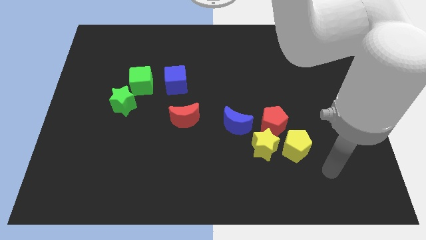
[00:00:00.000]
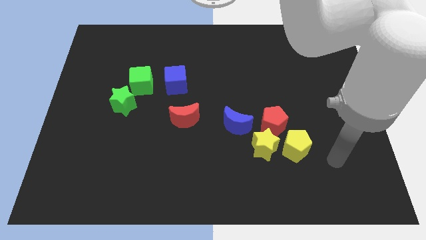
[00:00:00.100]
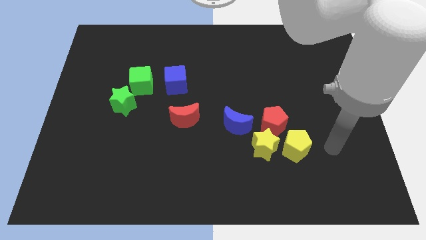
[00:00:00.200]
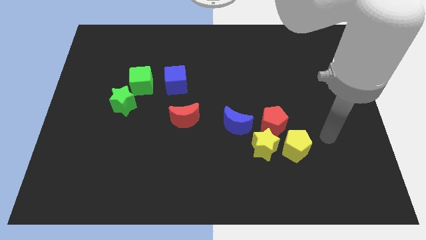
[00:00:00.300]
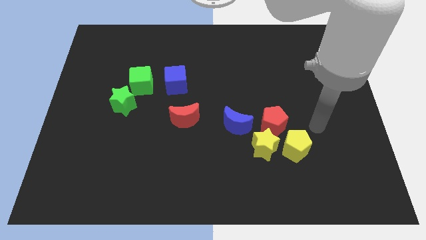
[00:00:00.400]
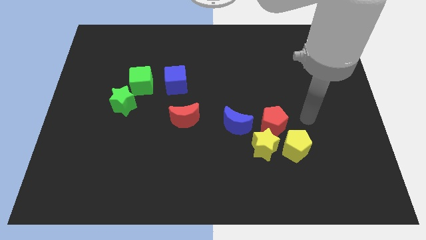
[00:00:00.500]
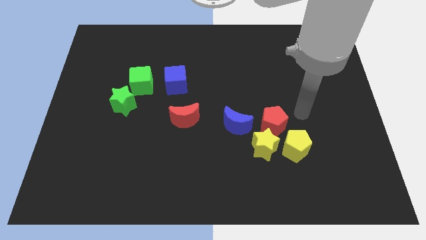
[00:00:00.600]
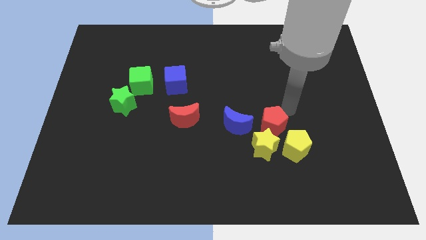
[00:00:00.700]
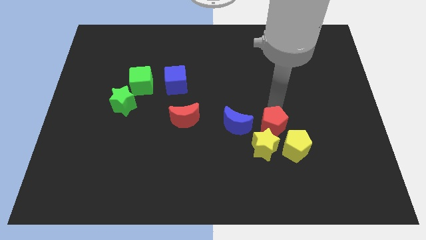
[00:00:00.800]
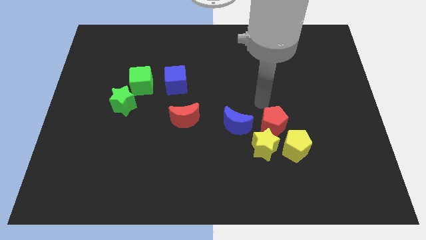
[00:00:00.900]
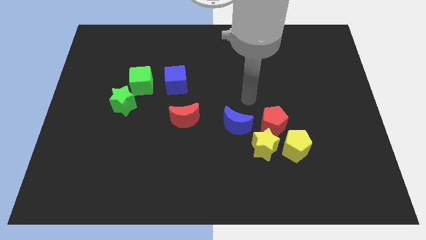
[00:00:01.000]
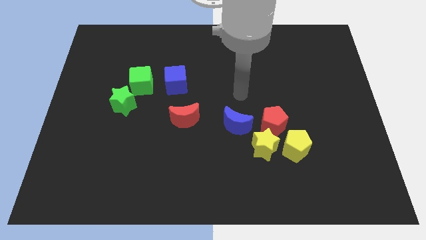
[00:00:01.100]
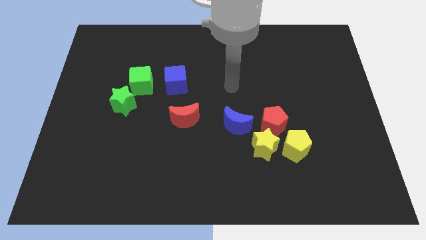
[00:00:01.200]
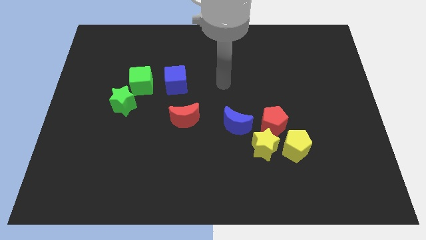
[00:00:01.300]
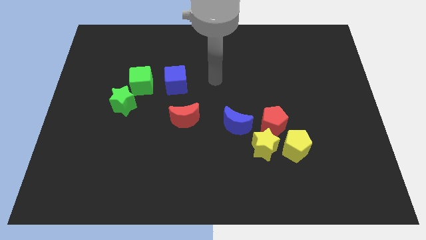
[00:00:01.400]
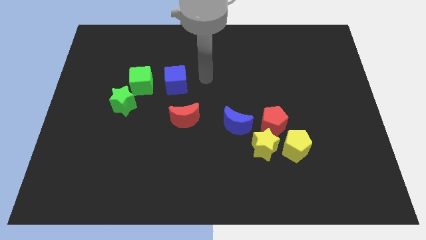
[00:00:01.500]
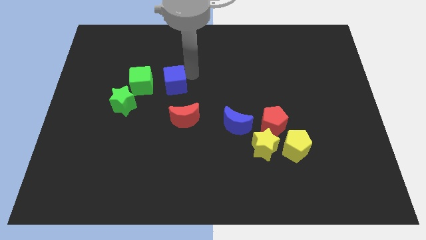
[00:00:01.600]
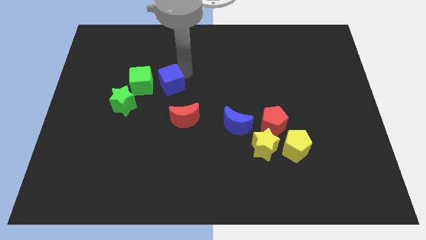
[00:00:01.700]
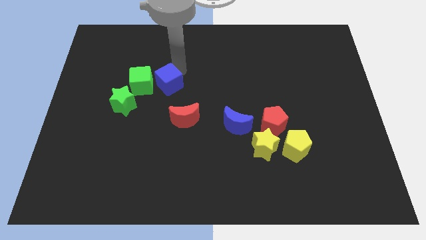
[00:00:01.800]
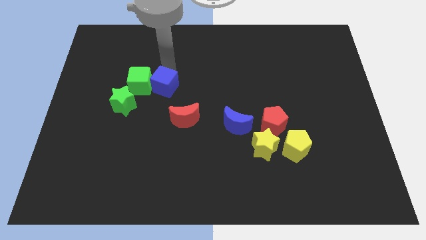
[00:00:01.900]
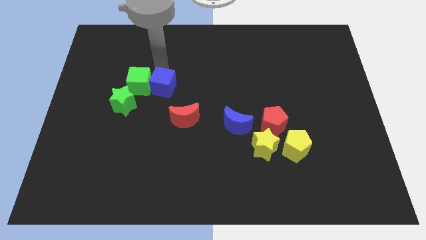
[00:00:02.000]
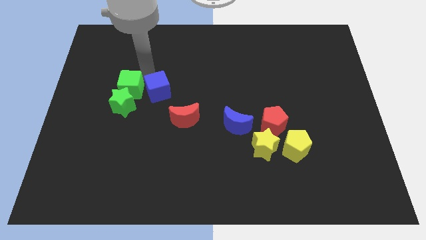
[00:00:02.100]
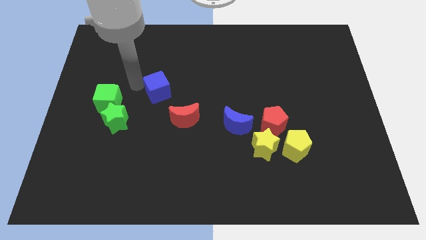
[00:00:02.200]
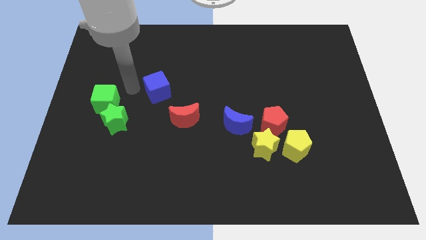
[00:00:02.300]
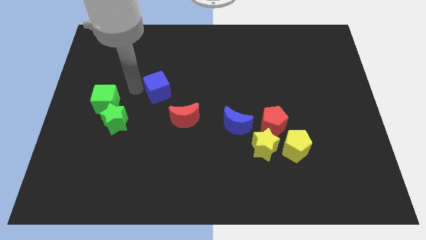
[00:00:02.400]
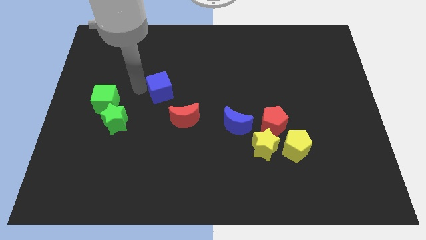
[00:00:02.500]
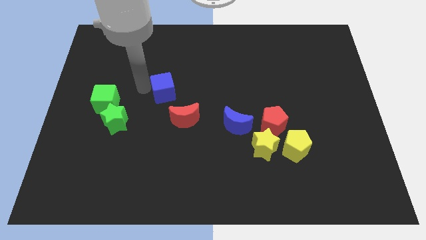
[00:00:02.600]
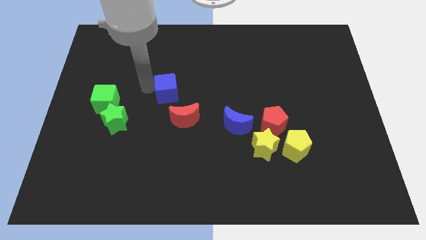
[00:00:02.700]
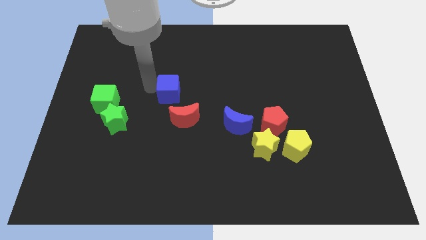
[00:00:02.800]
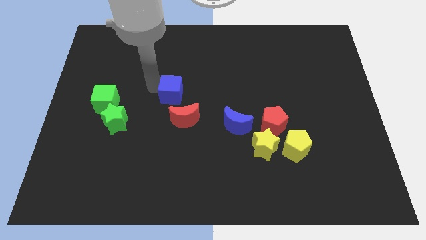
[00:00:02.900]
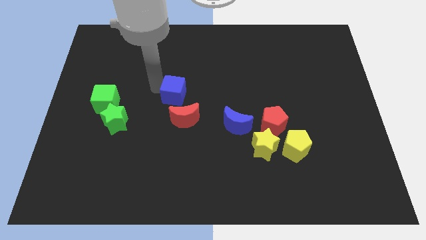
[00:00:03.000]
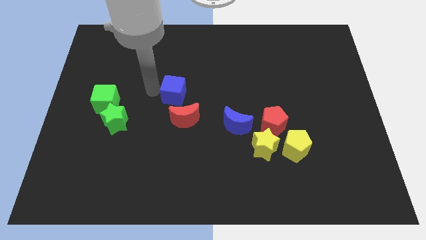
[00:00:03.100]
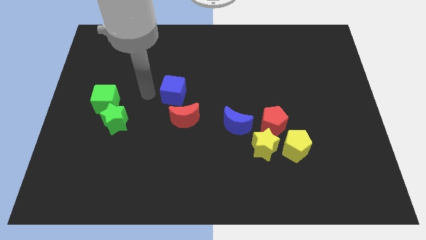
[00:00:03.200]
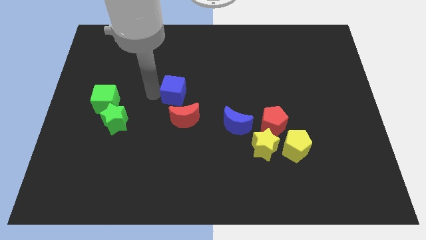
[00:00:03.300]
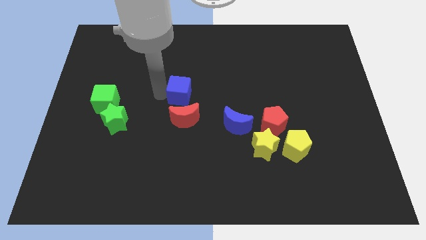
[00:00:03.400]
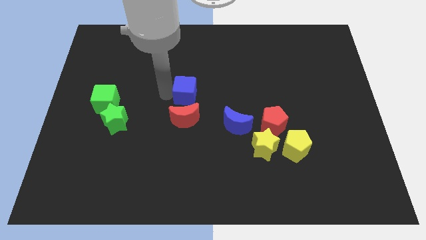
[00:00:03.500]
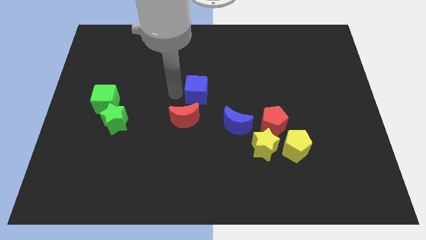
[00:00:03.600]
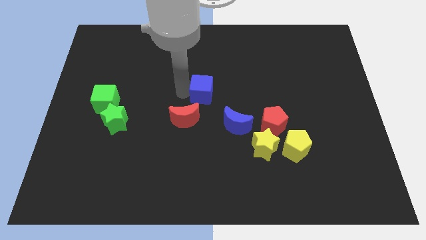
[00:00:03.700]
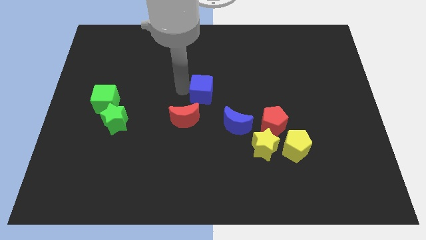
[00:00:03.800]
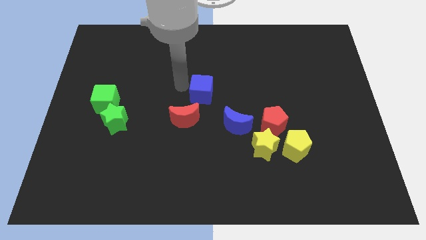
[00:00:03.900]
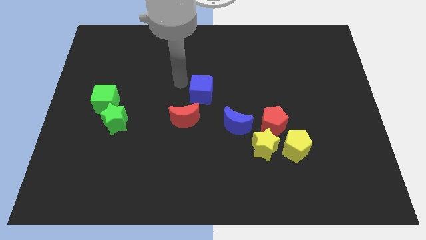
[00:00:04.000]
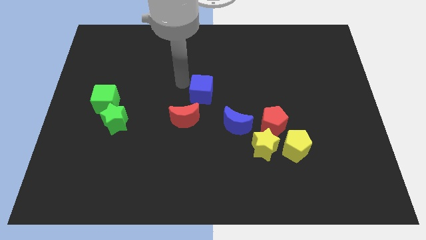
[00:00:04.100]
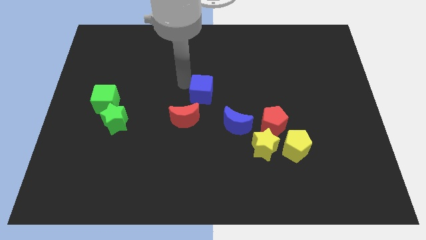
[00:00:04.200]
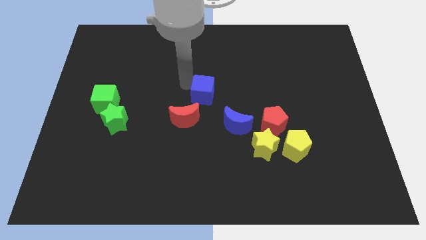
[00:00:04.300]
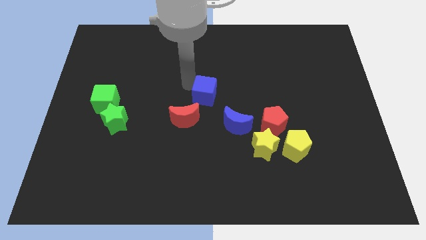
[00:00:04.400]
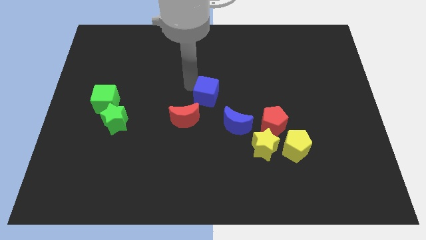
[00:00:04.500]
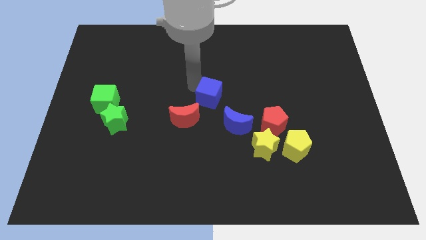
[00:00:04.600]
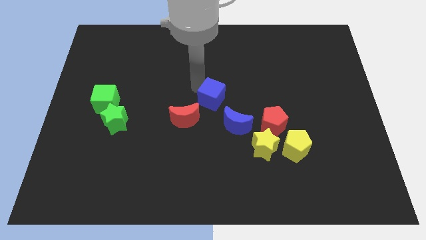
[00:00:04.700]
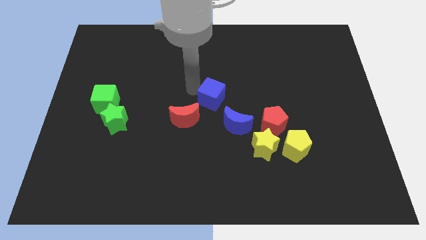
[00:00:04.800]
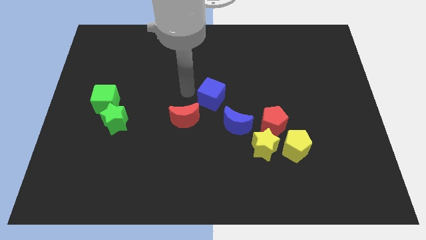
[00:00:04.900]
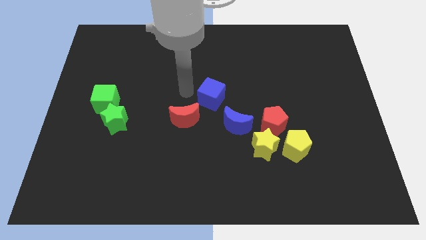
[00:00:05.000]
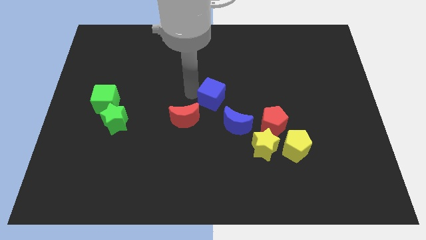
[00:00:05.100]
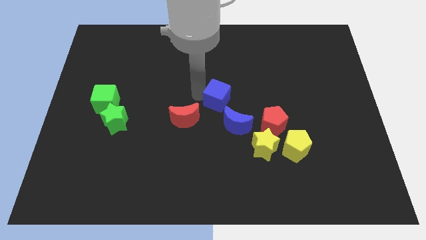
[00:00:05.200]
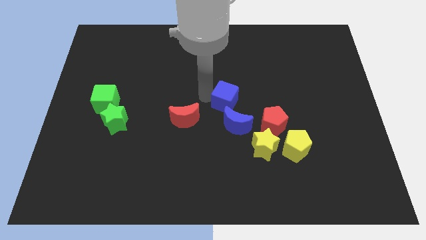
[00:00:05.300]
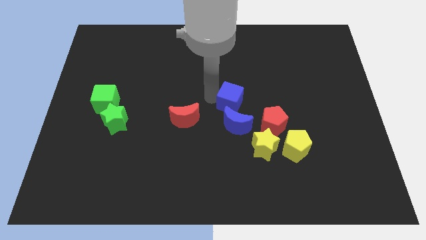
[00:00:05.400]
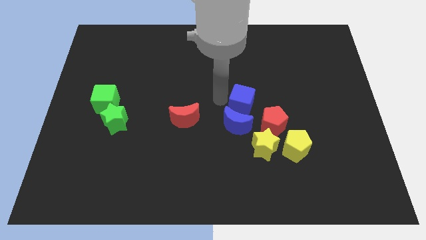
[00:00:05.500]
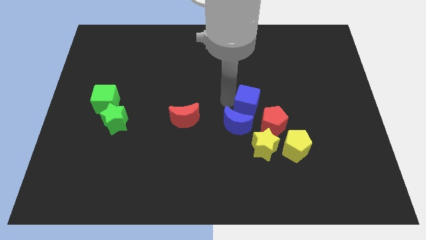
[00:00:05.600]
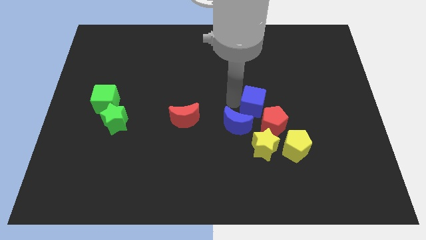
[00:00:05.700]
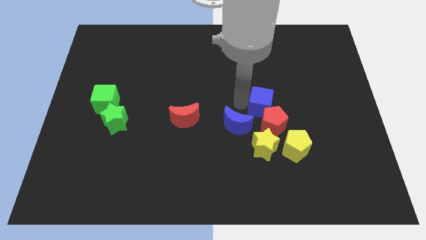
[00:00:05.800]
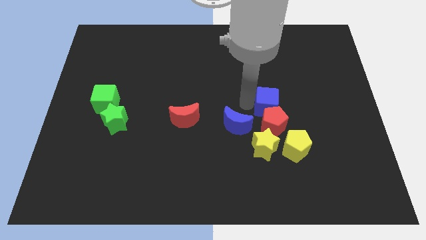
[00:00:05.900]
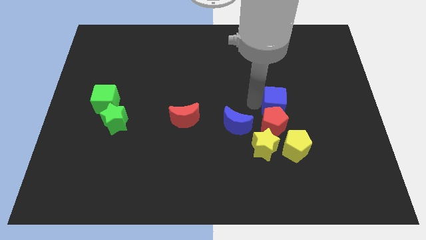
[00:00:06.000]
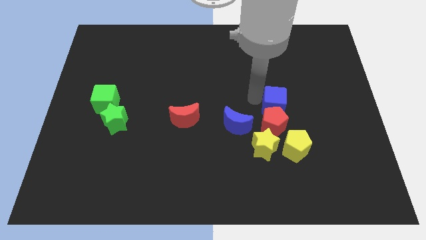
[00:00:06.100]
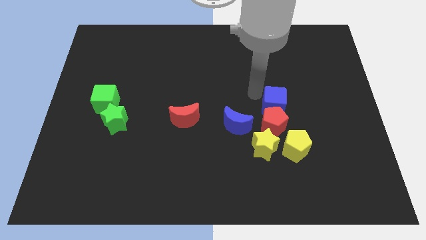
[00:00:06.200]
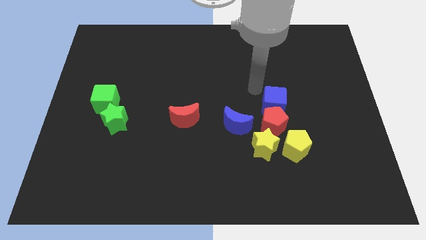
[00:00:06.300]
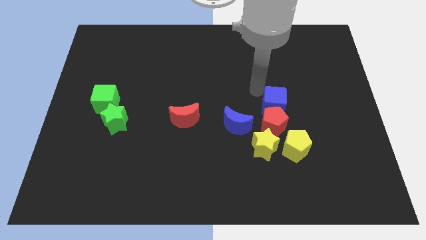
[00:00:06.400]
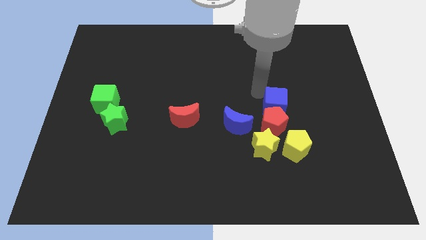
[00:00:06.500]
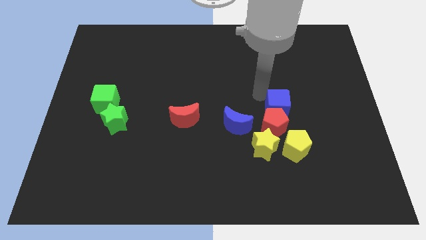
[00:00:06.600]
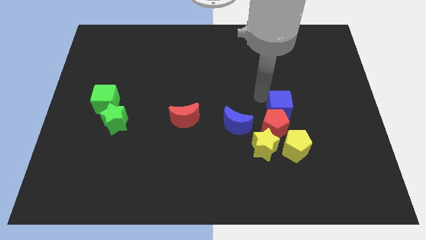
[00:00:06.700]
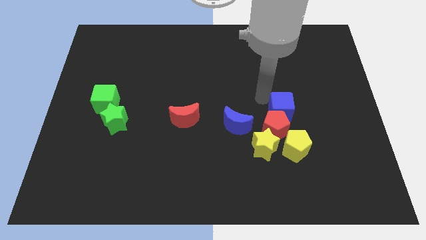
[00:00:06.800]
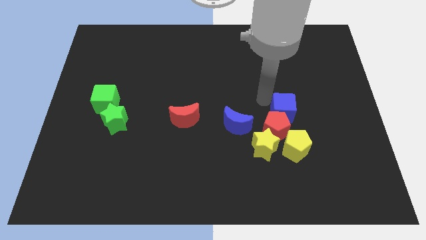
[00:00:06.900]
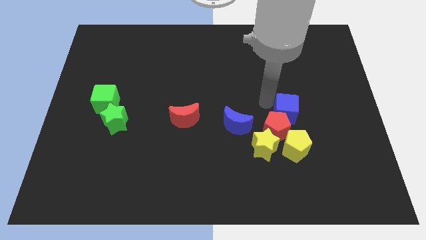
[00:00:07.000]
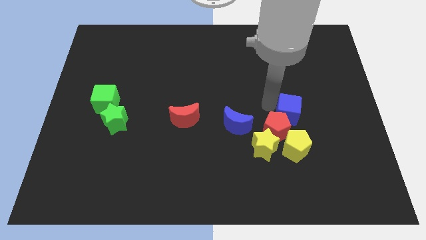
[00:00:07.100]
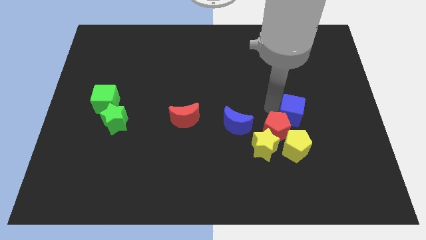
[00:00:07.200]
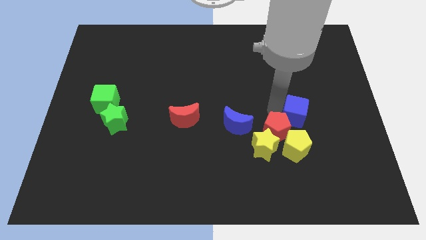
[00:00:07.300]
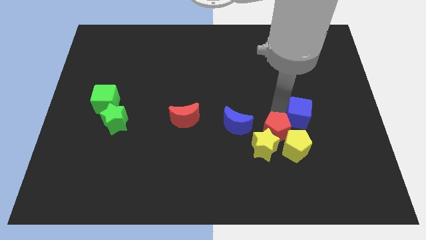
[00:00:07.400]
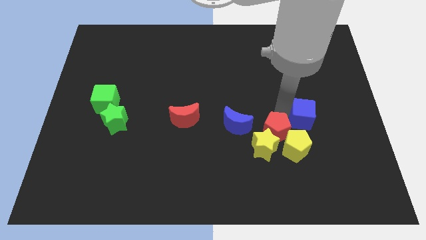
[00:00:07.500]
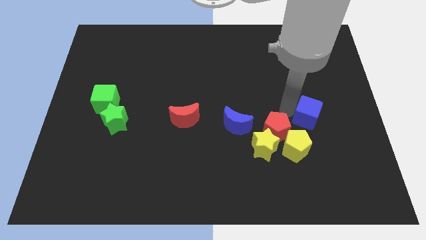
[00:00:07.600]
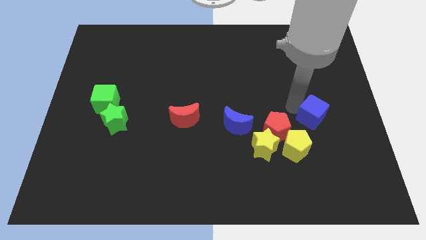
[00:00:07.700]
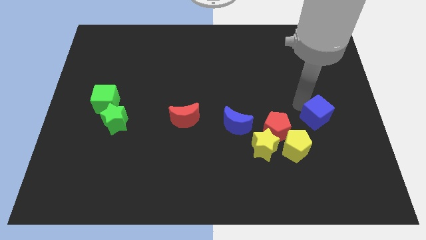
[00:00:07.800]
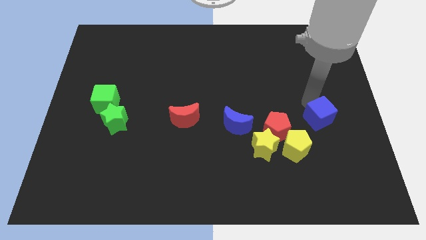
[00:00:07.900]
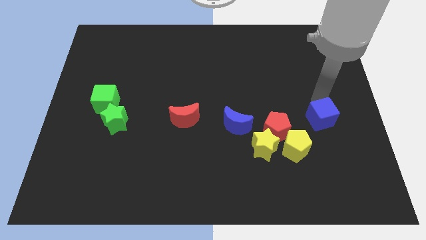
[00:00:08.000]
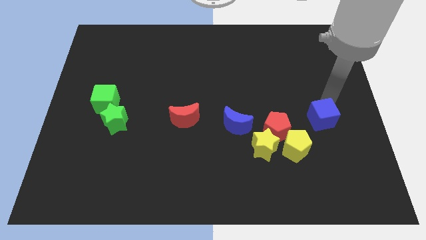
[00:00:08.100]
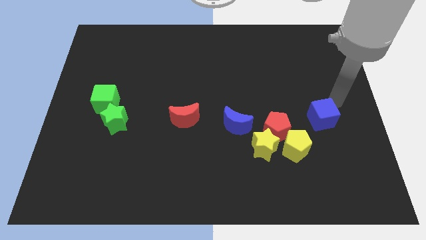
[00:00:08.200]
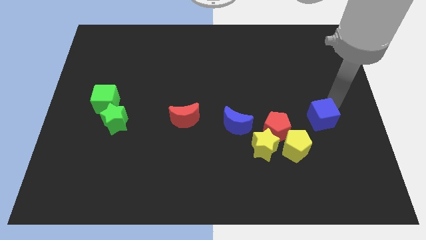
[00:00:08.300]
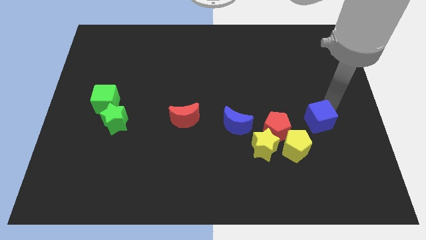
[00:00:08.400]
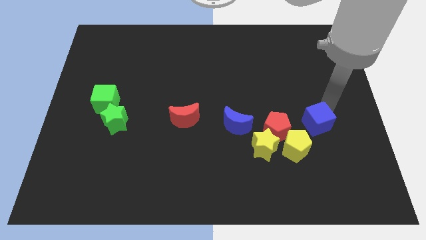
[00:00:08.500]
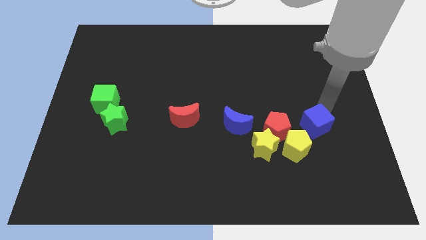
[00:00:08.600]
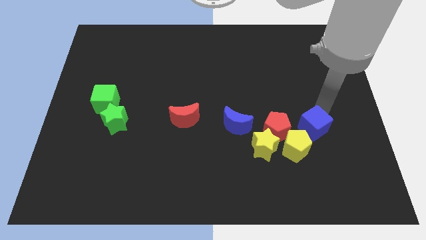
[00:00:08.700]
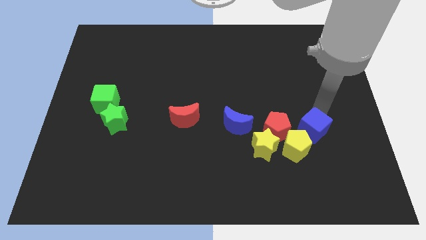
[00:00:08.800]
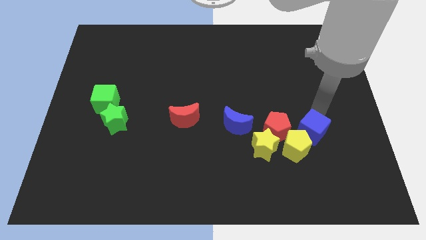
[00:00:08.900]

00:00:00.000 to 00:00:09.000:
move the blue cube towards the yellow pentagon
